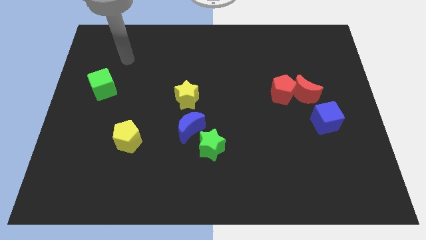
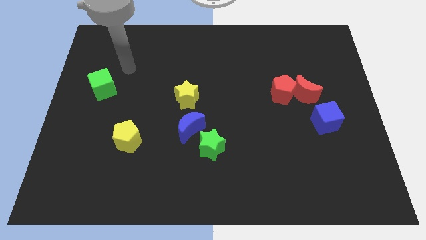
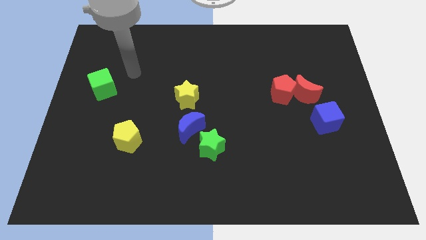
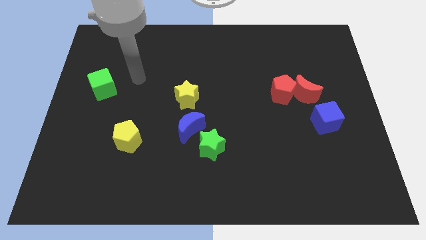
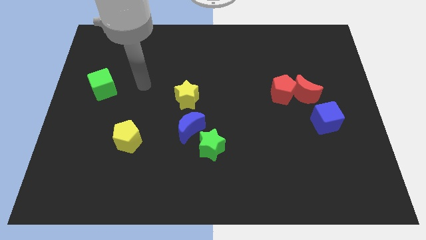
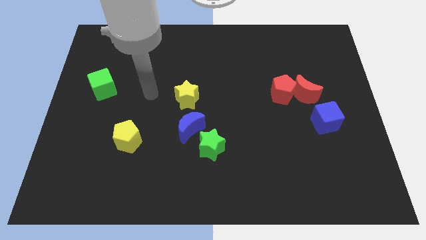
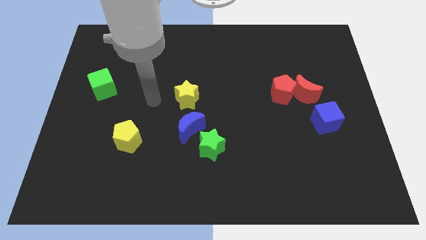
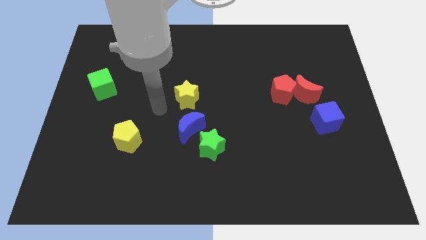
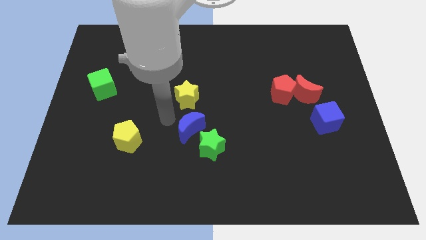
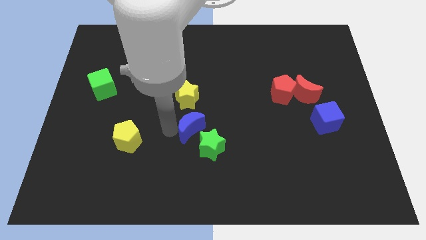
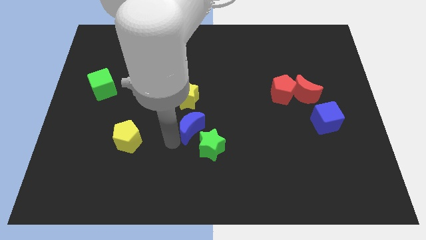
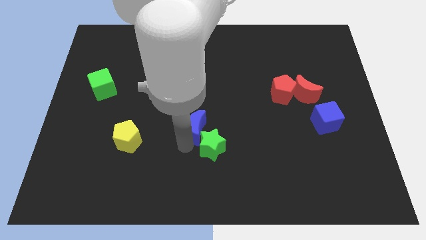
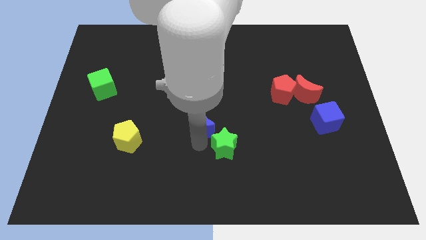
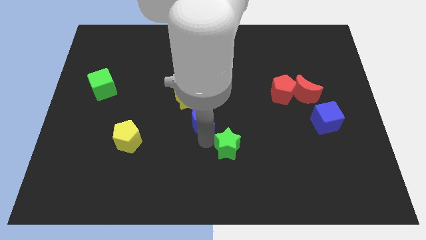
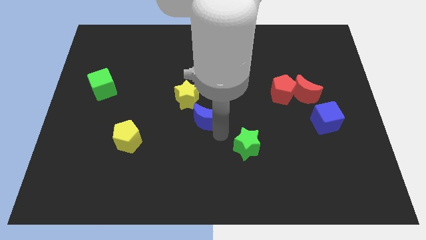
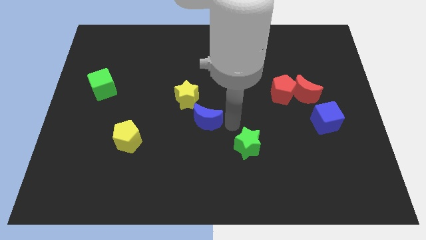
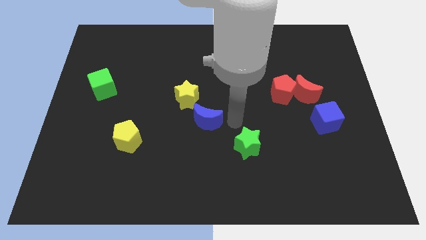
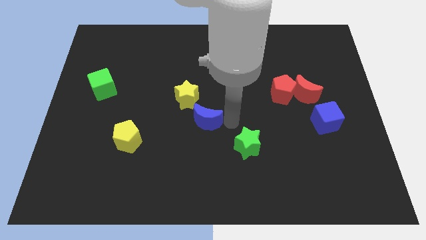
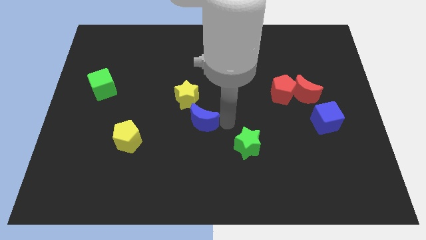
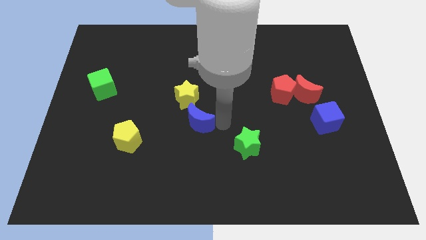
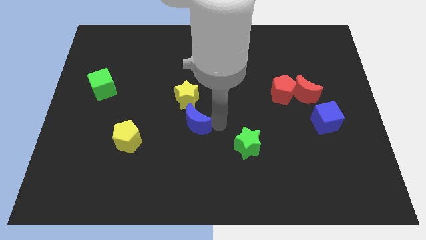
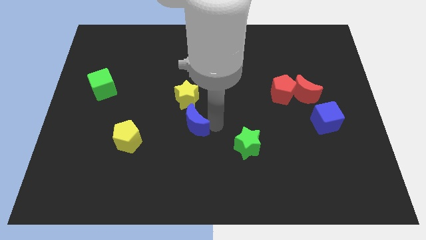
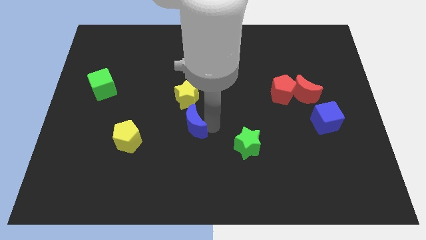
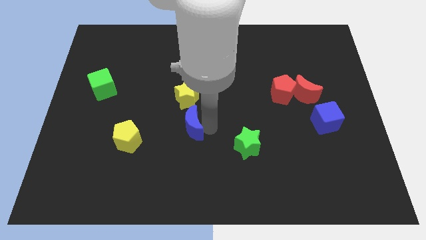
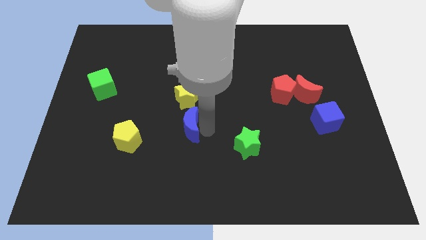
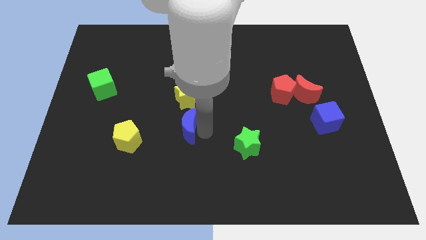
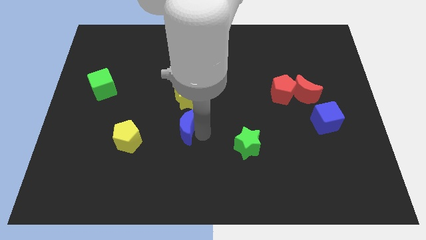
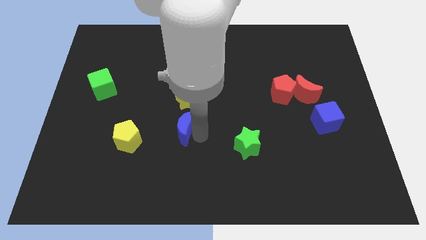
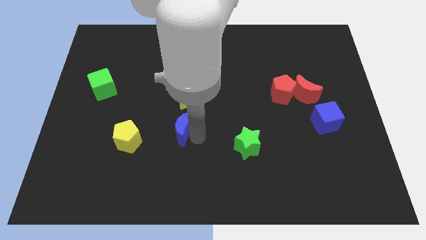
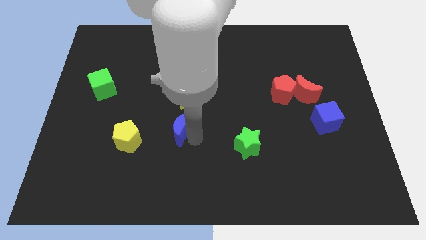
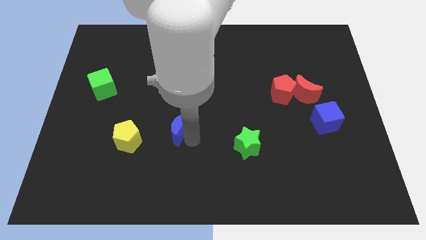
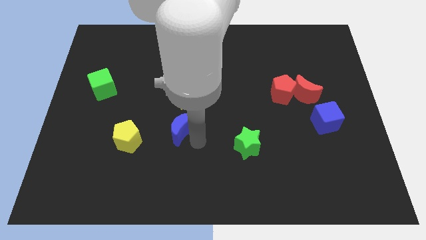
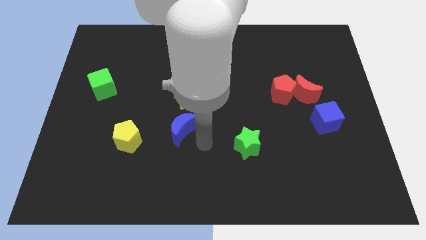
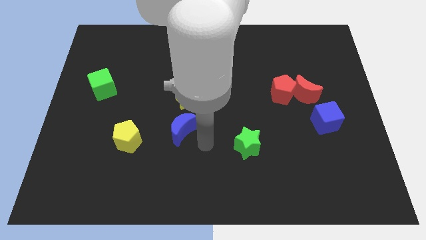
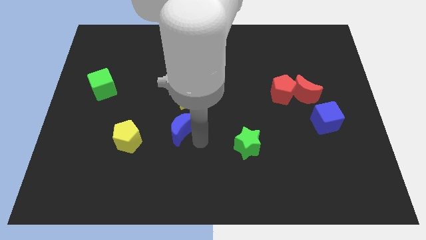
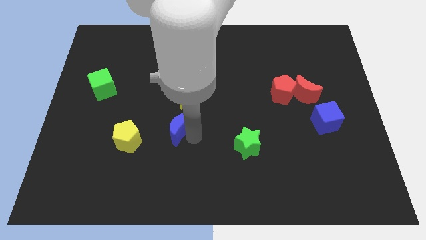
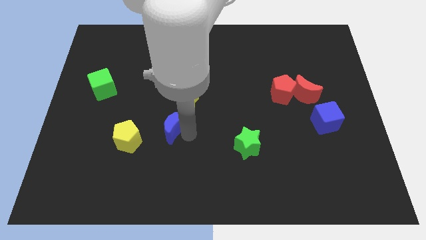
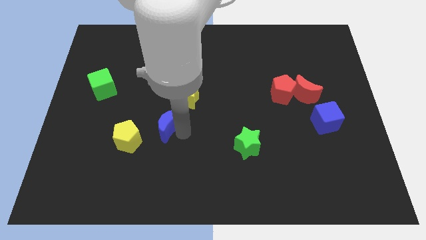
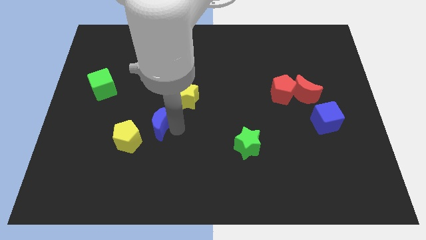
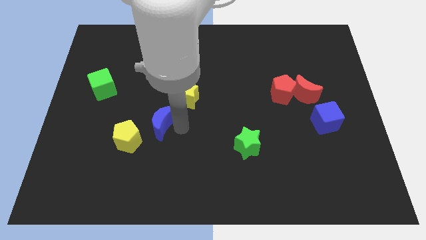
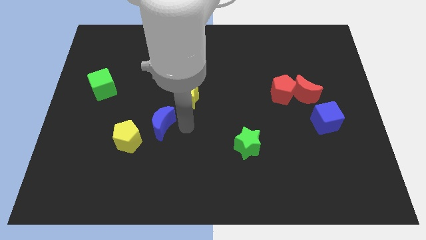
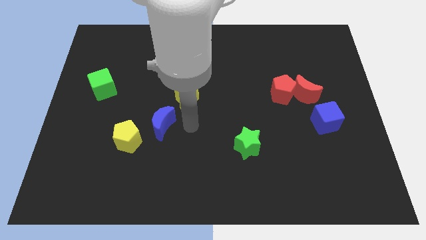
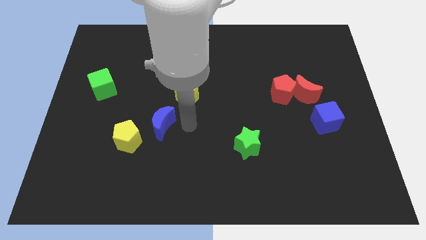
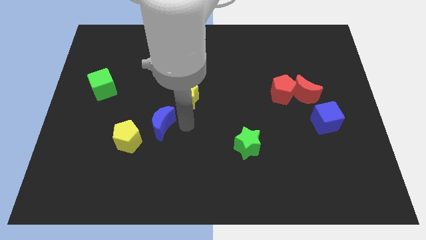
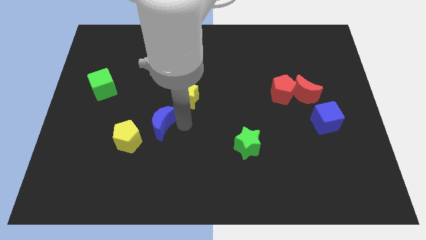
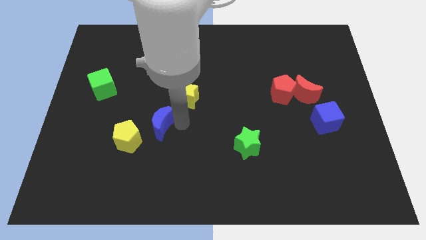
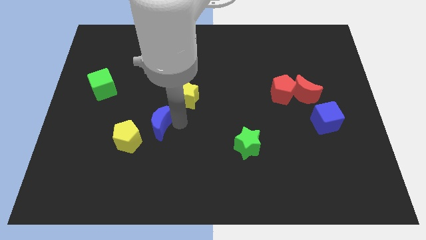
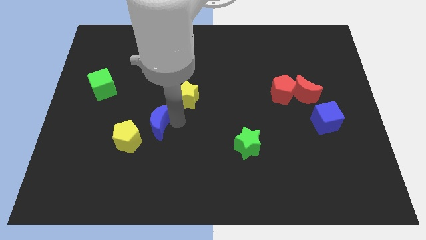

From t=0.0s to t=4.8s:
push the blue moon to the left a little bit

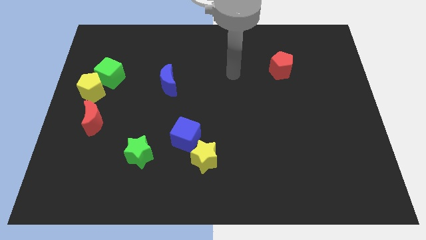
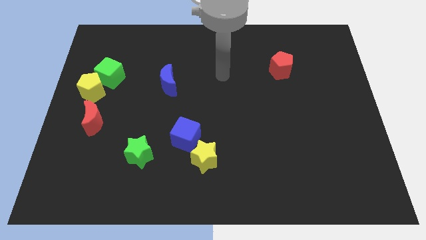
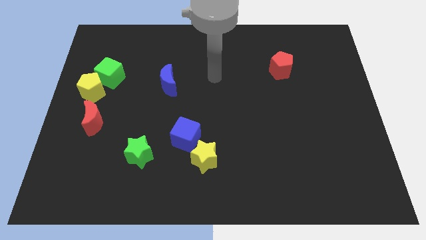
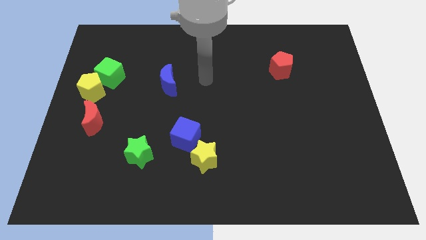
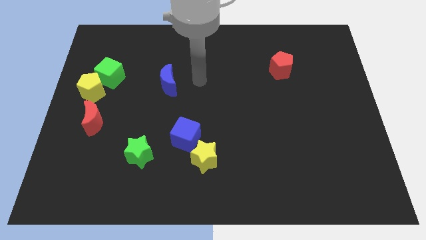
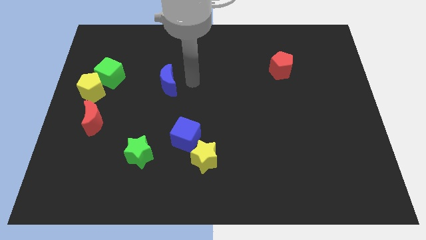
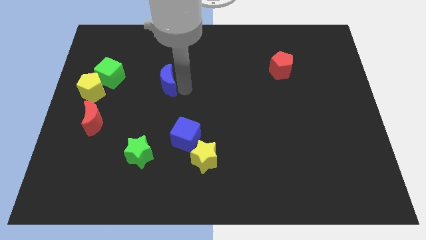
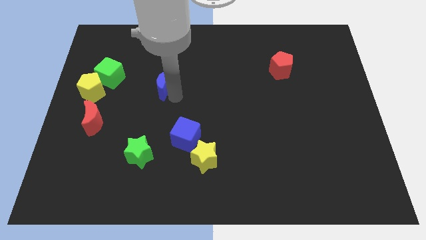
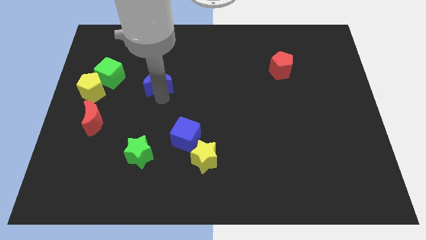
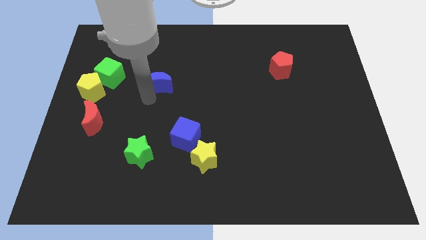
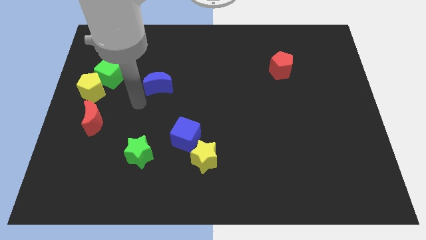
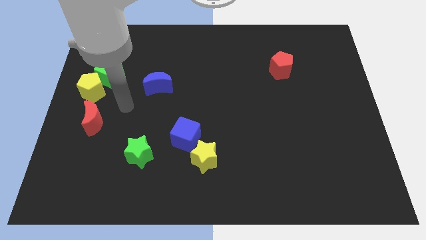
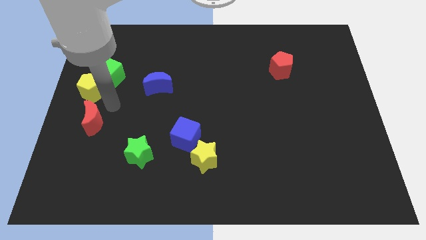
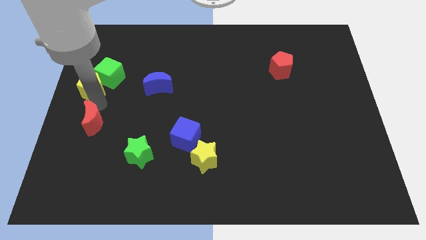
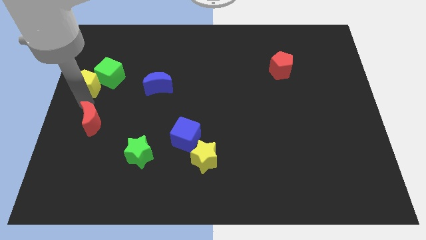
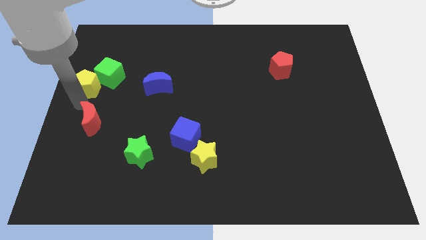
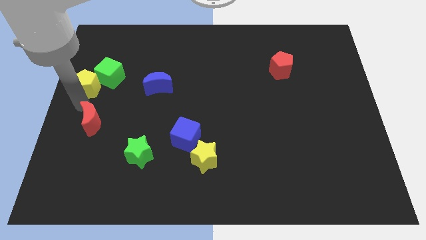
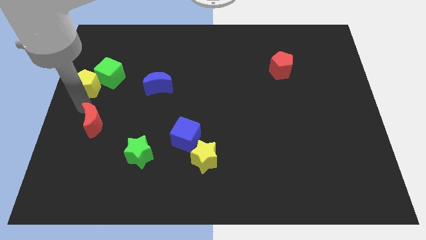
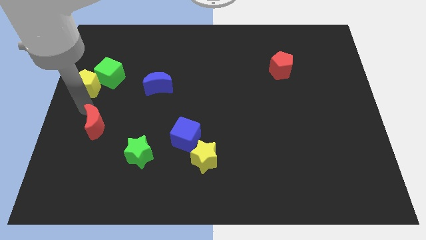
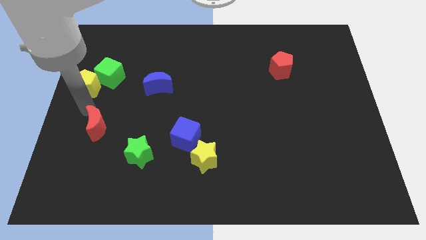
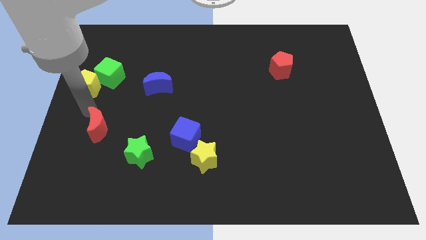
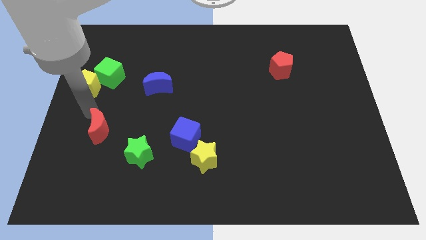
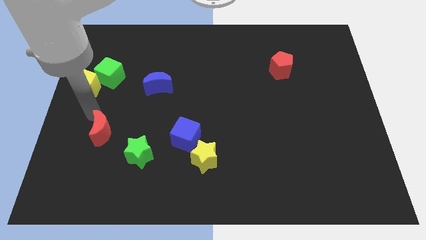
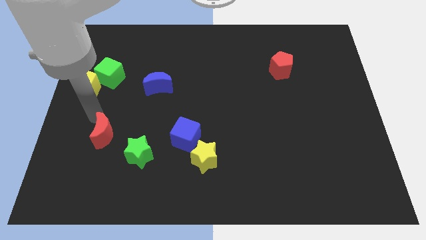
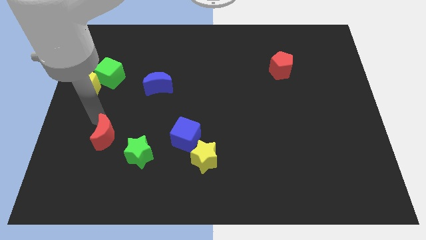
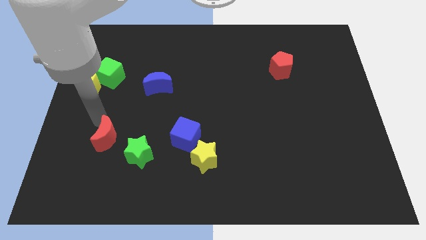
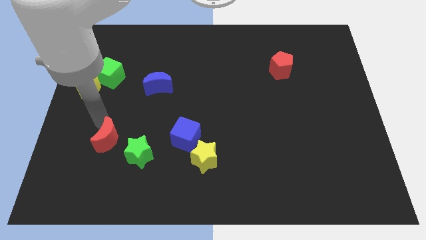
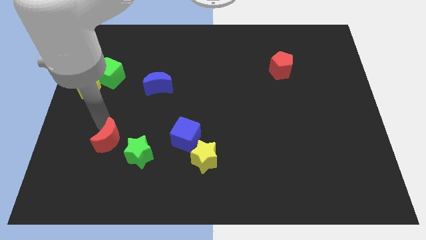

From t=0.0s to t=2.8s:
slightly slide the red moon down and then to the right

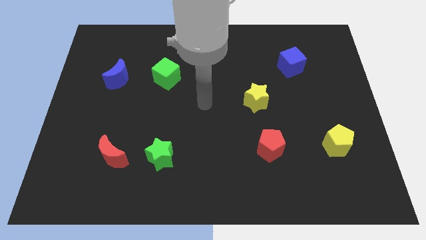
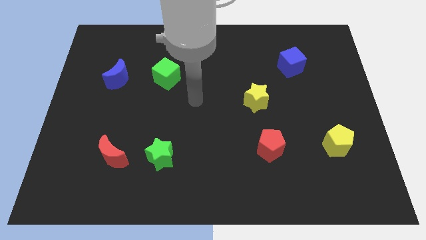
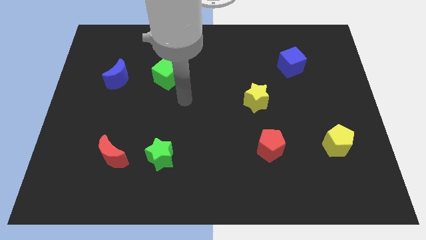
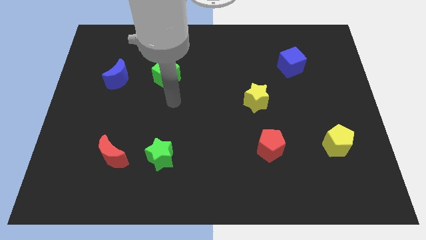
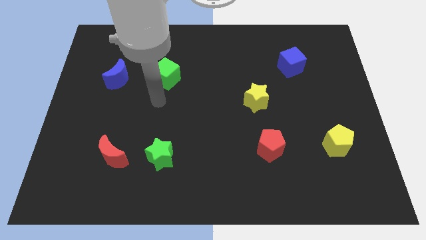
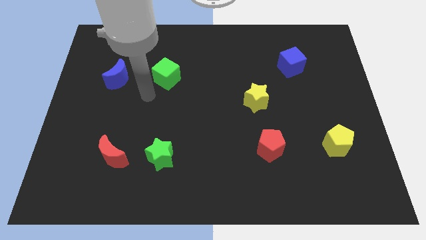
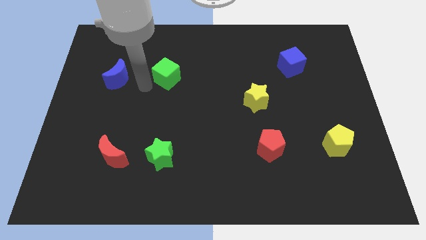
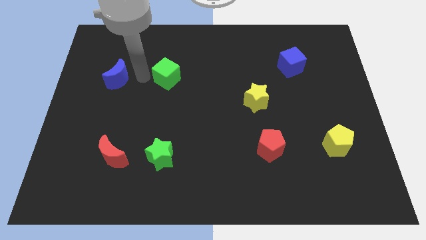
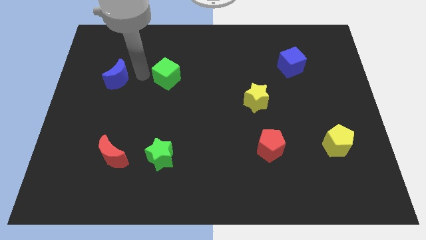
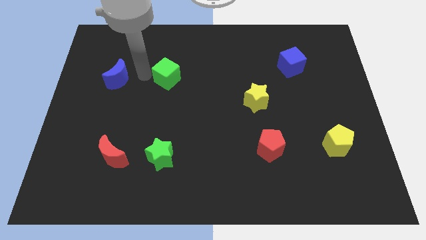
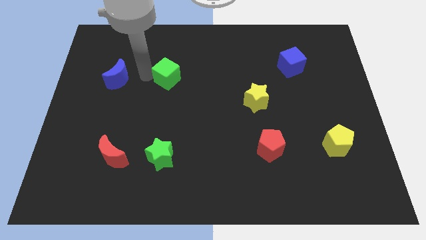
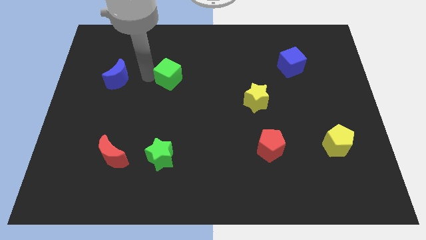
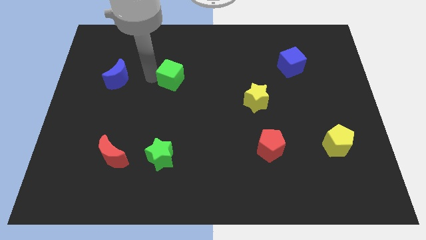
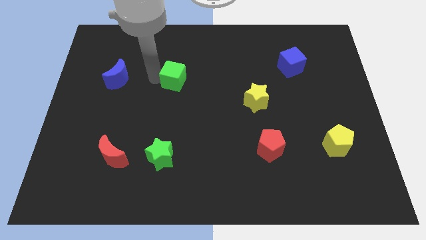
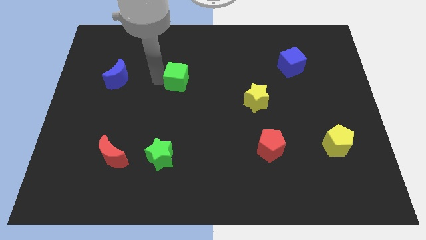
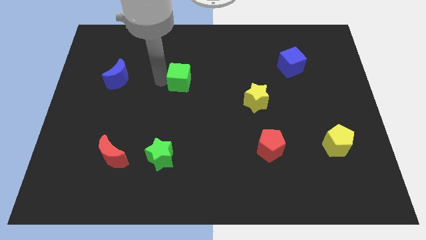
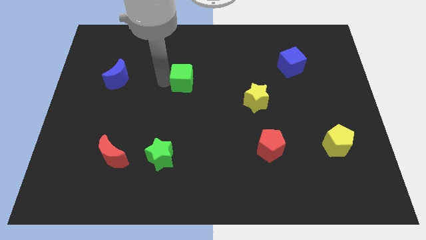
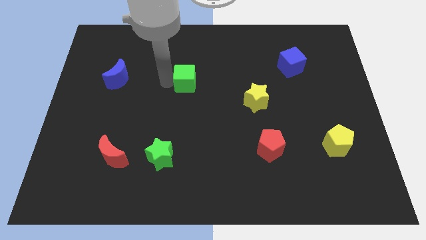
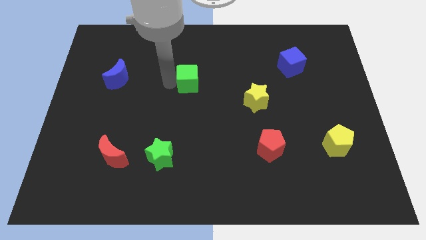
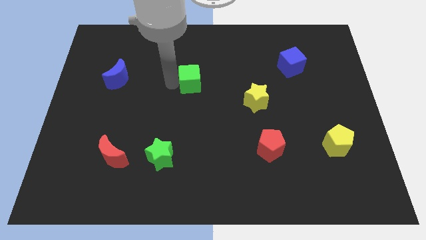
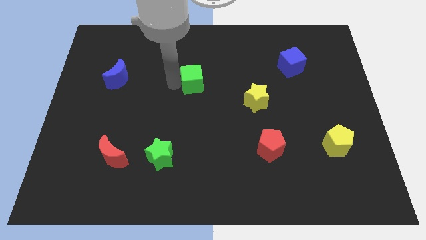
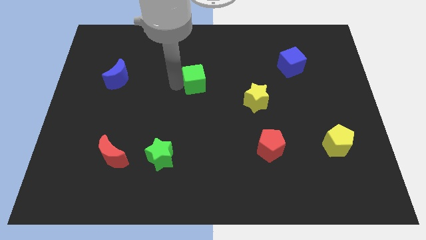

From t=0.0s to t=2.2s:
slightly move the green cube right
